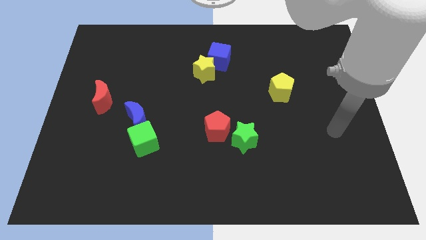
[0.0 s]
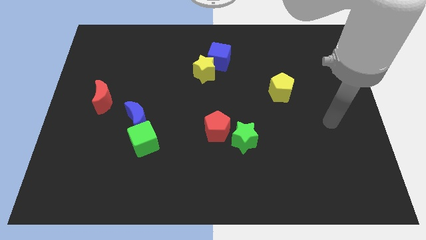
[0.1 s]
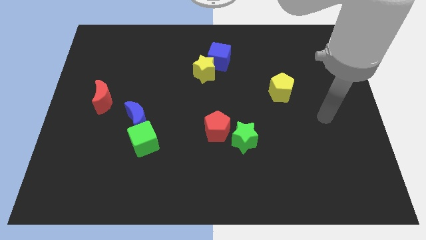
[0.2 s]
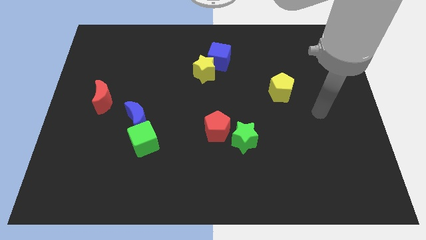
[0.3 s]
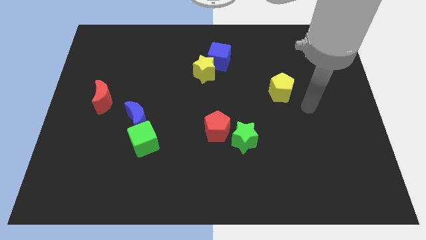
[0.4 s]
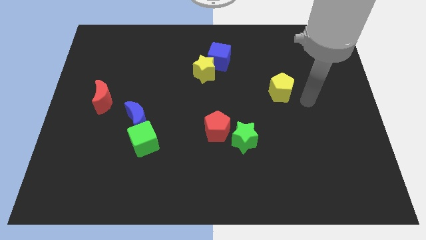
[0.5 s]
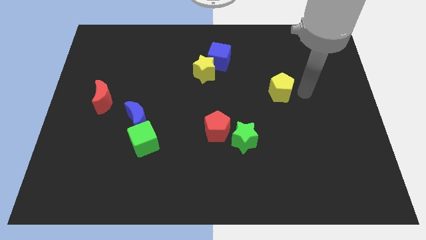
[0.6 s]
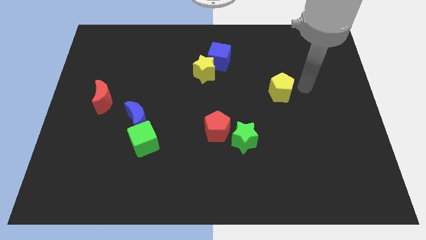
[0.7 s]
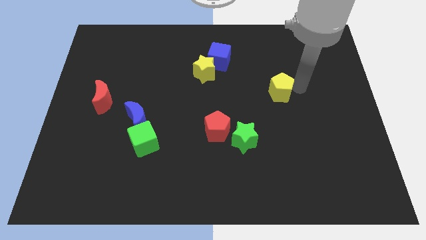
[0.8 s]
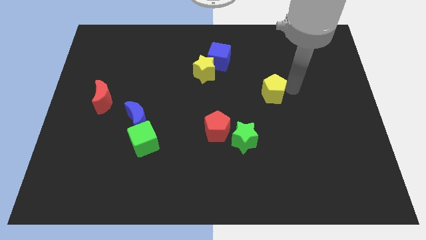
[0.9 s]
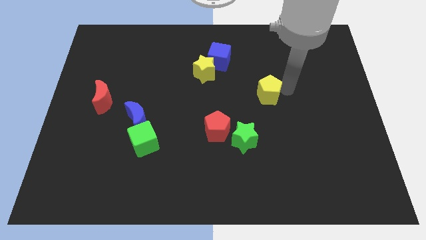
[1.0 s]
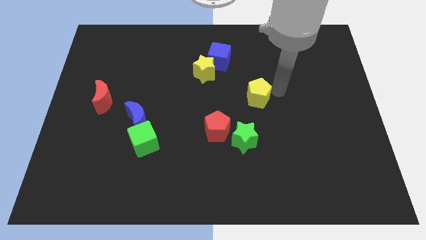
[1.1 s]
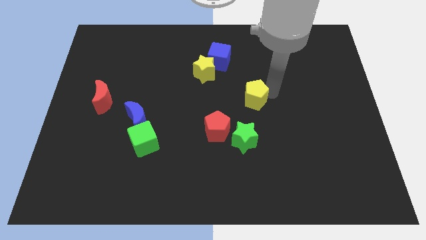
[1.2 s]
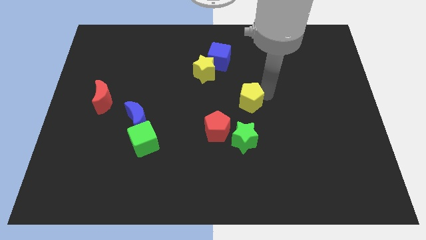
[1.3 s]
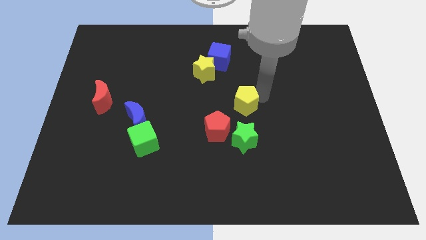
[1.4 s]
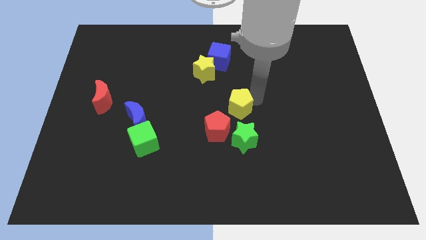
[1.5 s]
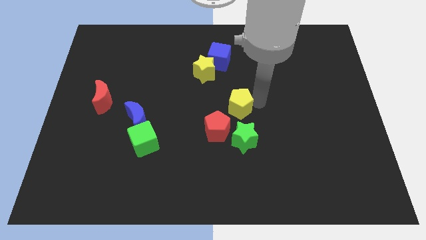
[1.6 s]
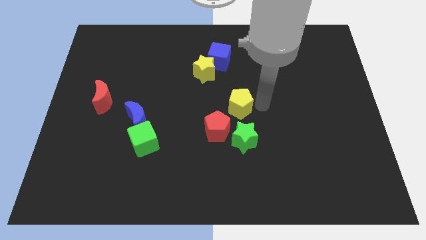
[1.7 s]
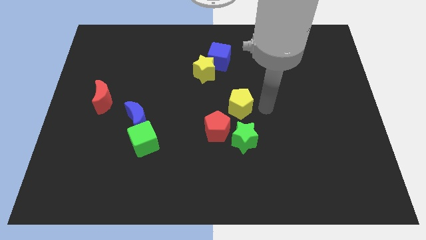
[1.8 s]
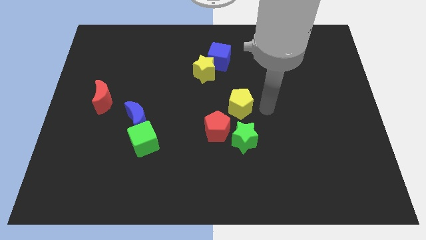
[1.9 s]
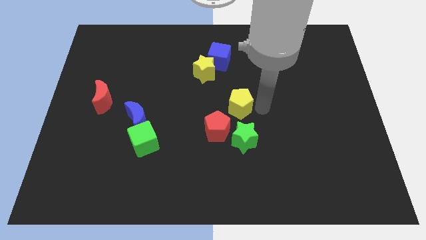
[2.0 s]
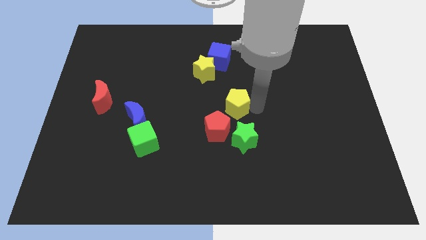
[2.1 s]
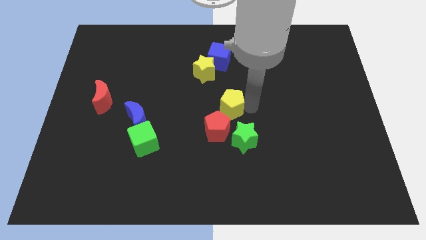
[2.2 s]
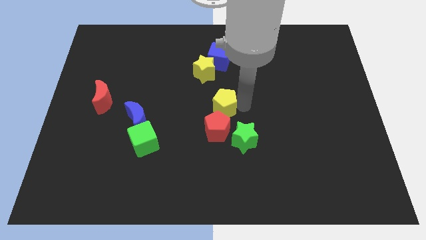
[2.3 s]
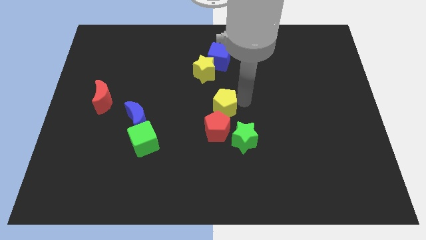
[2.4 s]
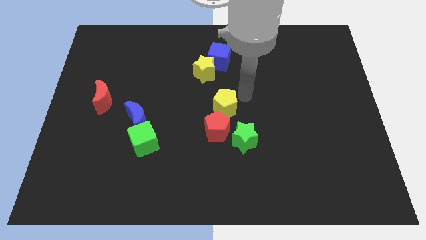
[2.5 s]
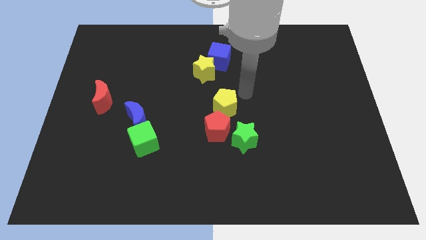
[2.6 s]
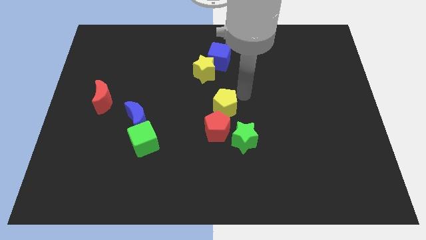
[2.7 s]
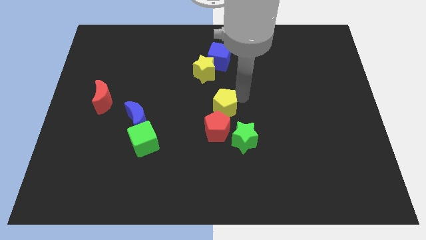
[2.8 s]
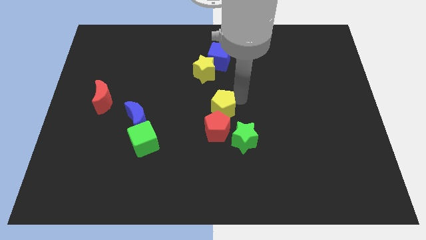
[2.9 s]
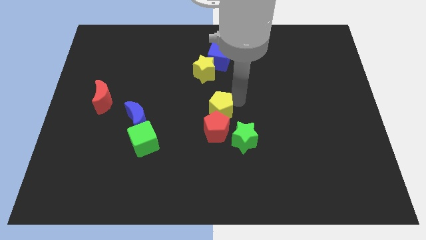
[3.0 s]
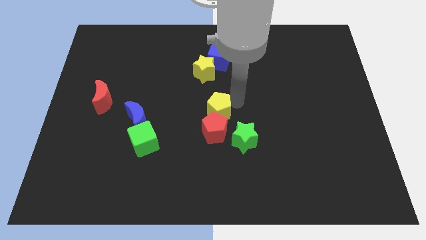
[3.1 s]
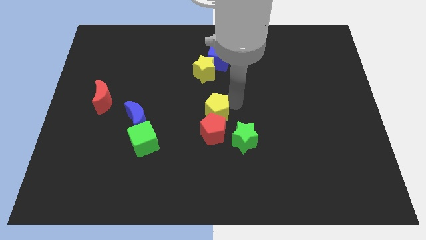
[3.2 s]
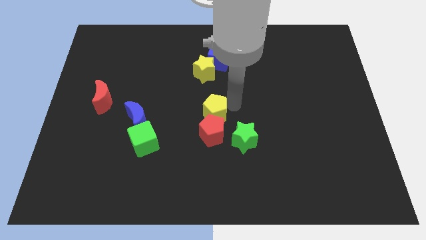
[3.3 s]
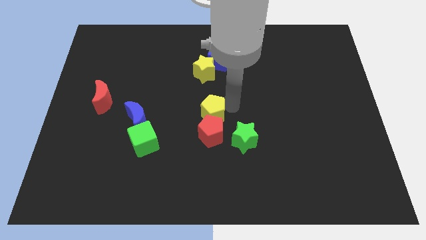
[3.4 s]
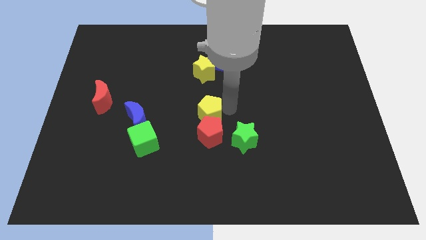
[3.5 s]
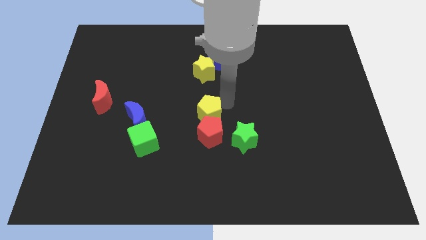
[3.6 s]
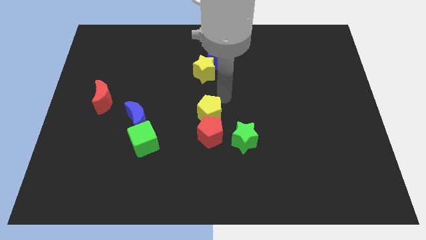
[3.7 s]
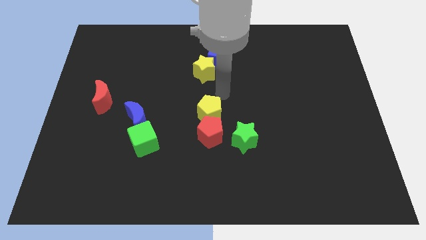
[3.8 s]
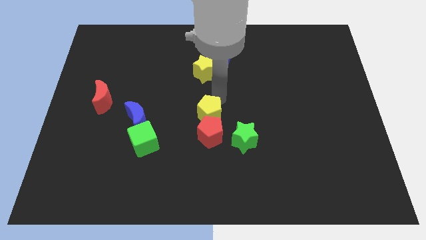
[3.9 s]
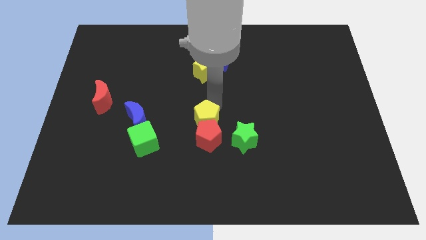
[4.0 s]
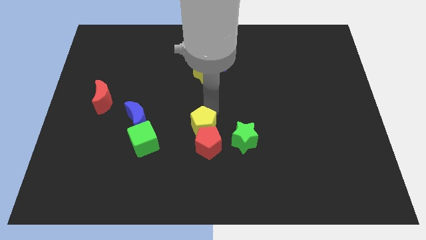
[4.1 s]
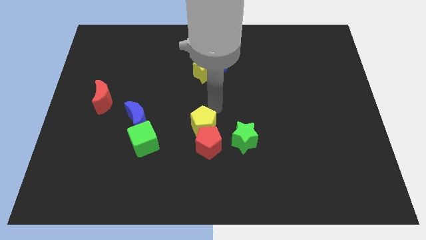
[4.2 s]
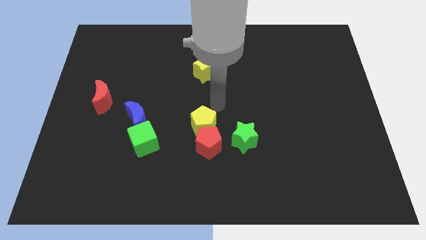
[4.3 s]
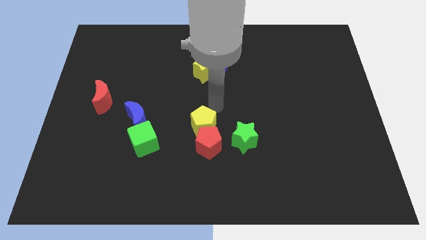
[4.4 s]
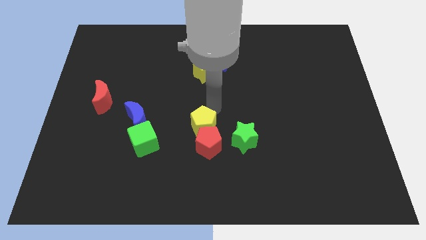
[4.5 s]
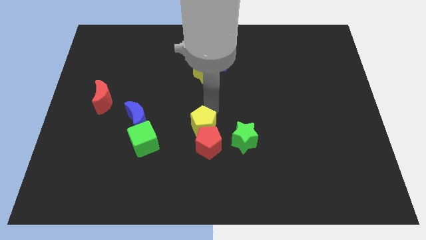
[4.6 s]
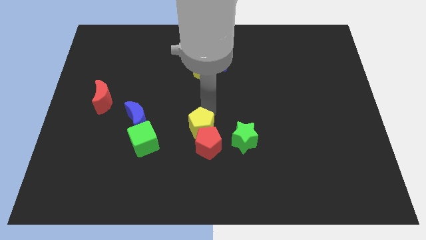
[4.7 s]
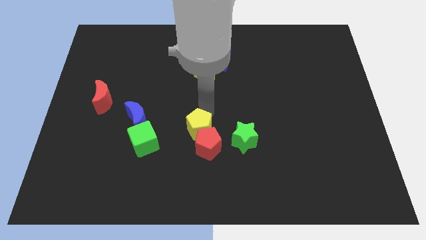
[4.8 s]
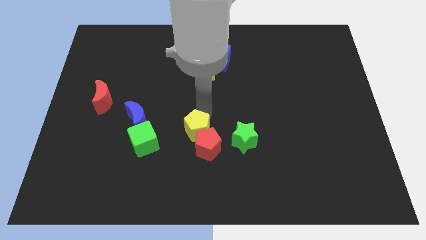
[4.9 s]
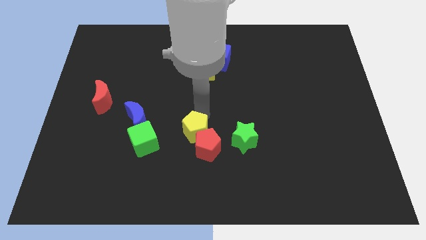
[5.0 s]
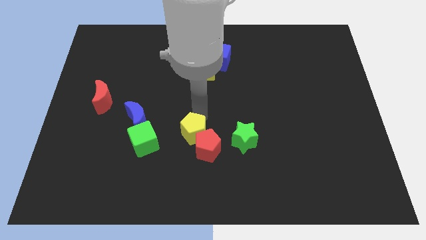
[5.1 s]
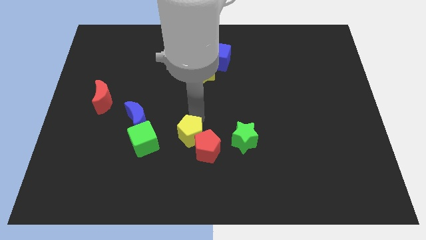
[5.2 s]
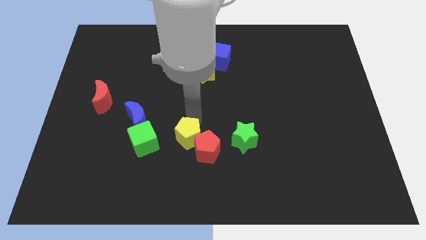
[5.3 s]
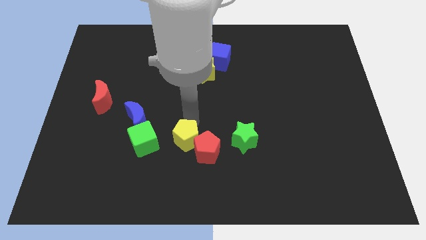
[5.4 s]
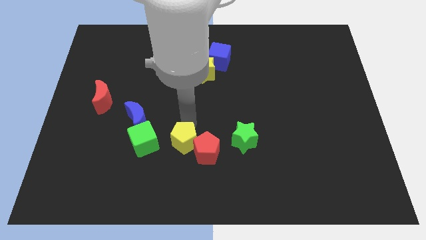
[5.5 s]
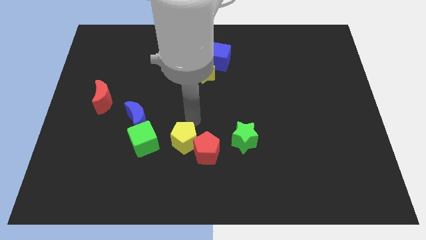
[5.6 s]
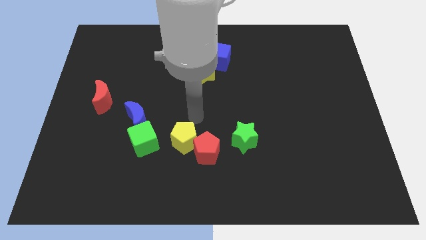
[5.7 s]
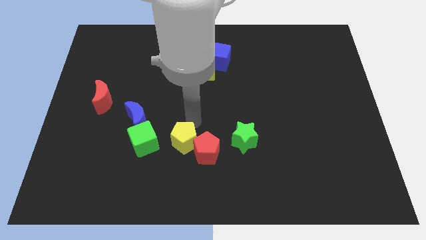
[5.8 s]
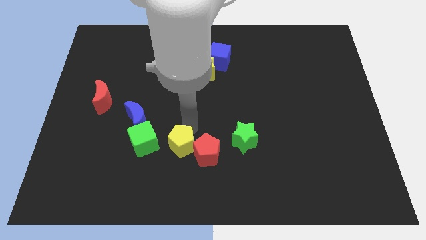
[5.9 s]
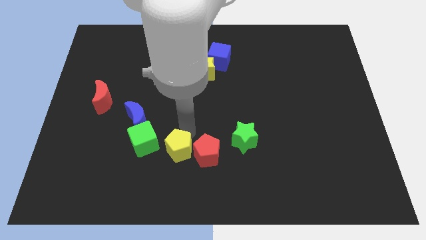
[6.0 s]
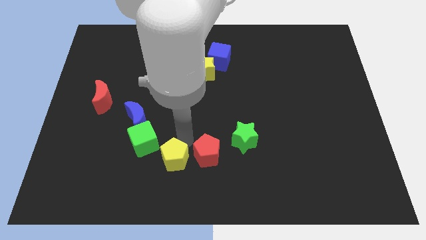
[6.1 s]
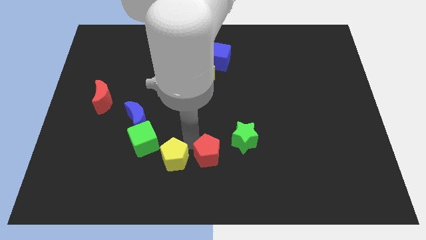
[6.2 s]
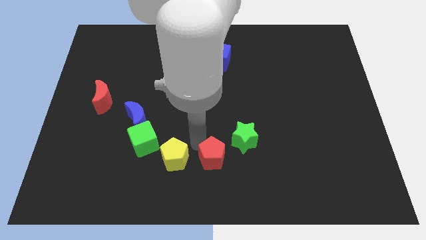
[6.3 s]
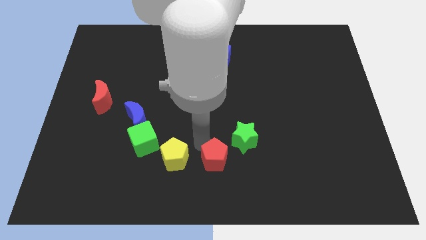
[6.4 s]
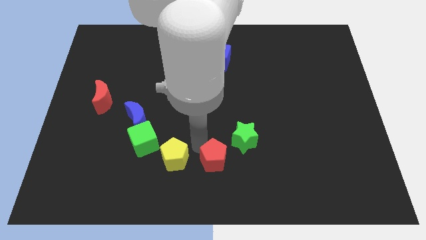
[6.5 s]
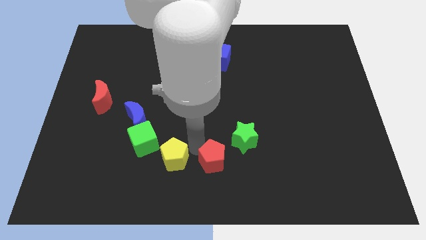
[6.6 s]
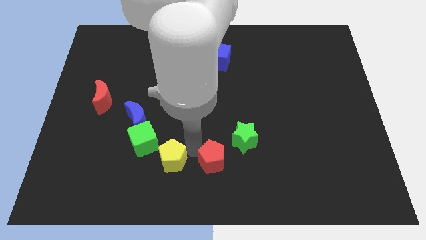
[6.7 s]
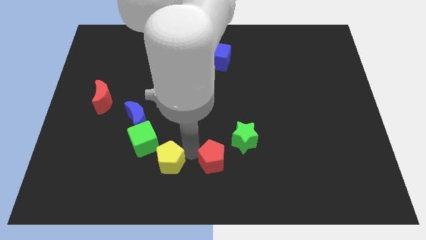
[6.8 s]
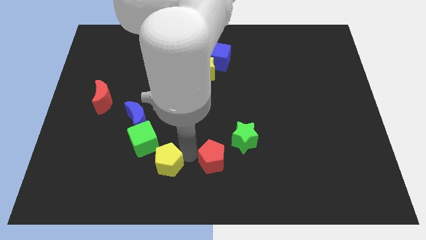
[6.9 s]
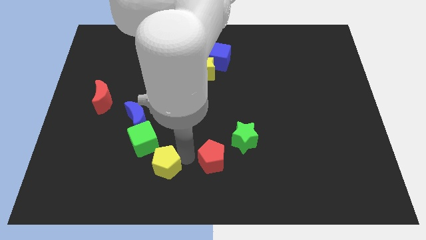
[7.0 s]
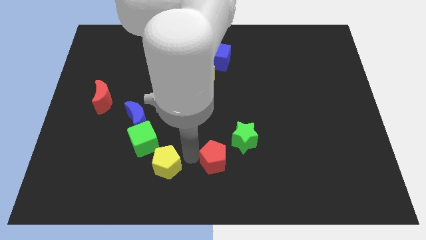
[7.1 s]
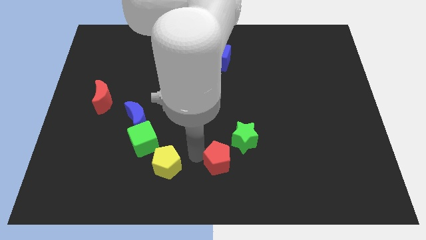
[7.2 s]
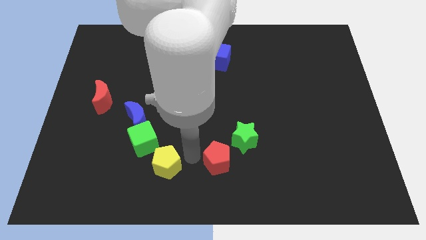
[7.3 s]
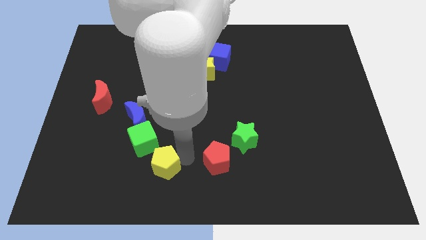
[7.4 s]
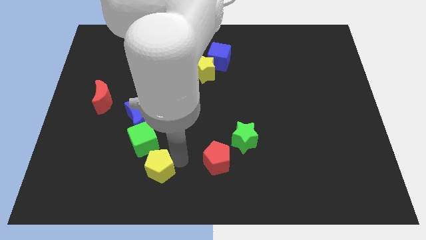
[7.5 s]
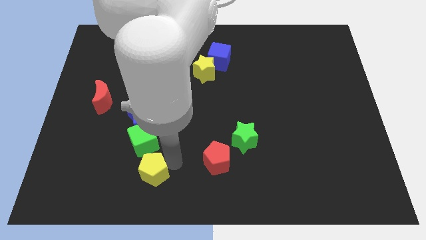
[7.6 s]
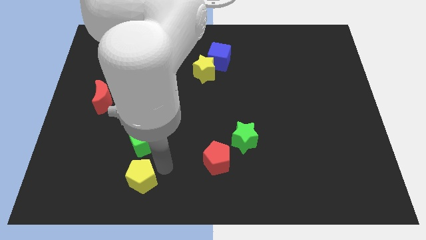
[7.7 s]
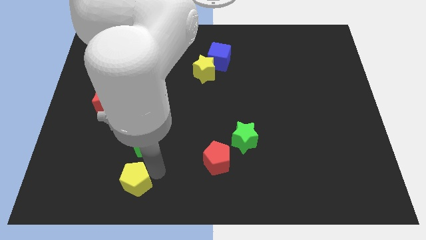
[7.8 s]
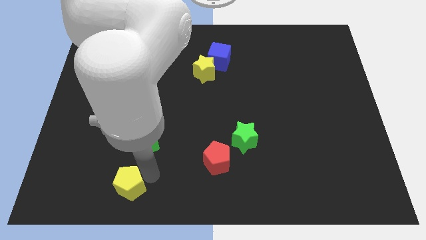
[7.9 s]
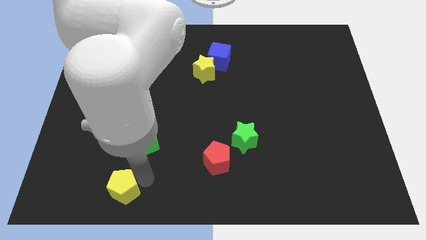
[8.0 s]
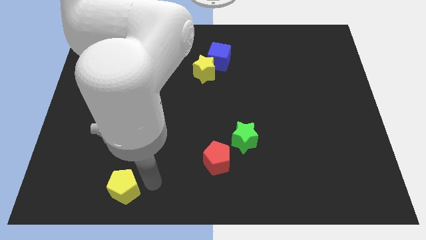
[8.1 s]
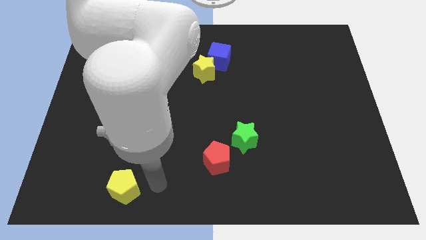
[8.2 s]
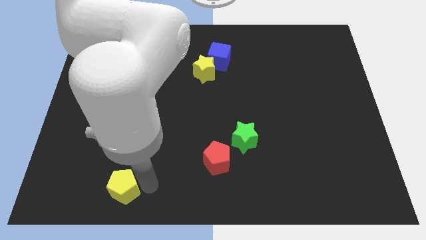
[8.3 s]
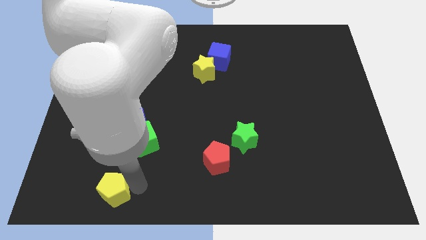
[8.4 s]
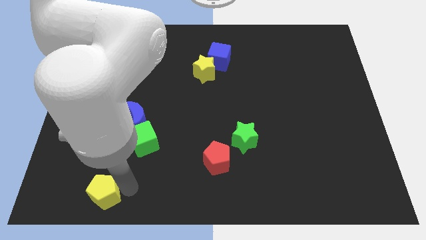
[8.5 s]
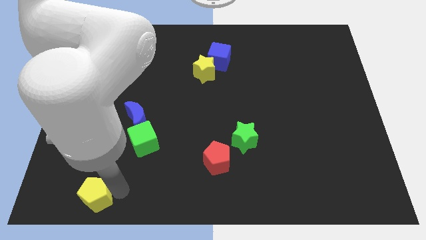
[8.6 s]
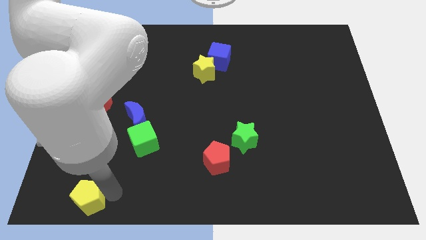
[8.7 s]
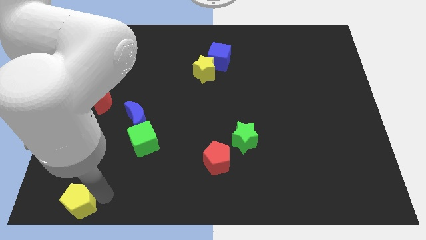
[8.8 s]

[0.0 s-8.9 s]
slide the yellow pentagon to the bottom left of the board
